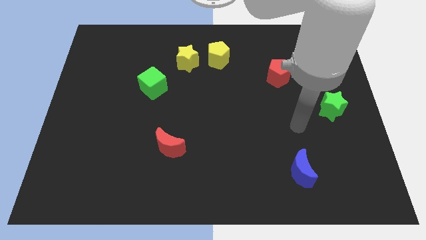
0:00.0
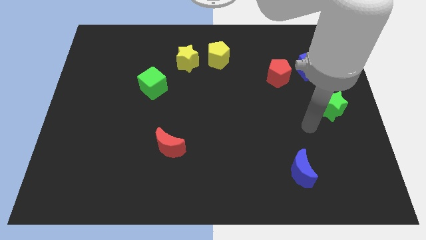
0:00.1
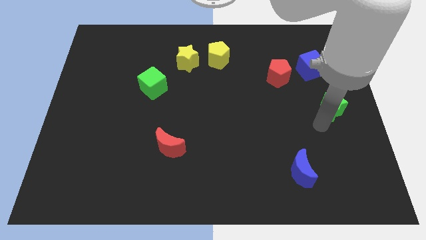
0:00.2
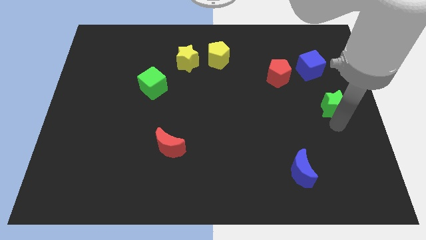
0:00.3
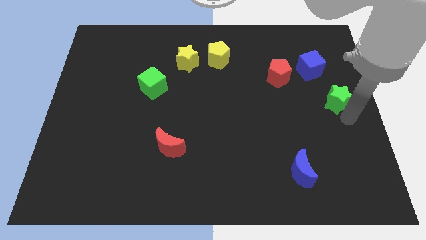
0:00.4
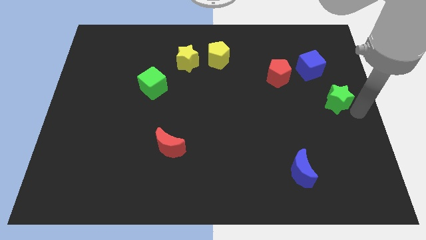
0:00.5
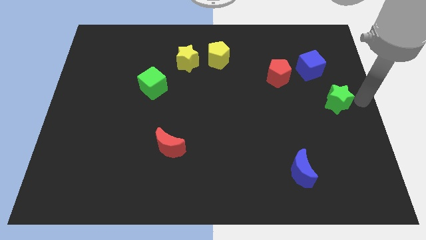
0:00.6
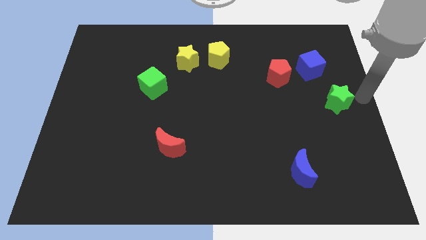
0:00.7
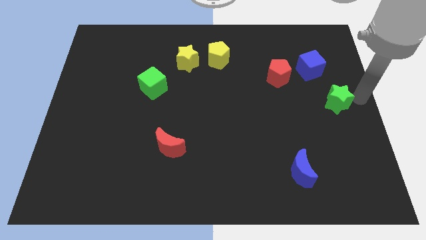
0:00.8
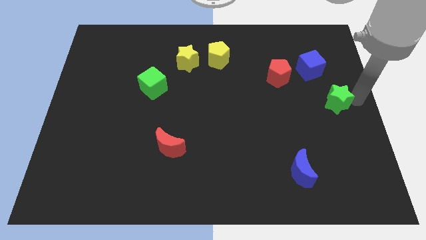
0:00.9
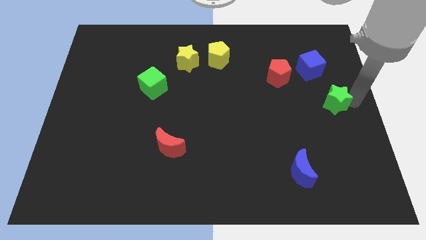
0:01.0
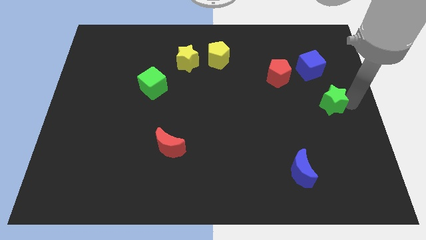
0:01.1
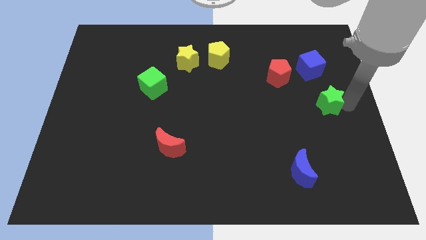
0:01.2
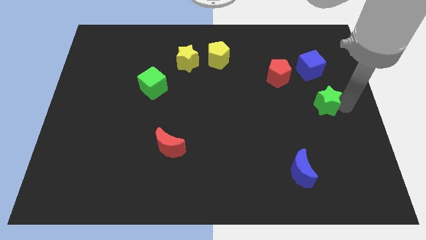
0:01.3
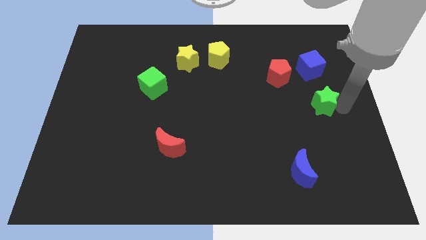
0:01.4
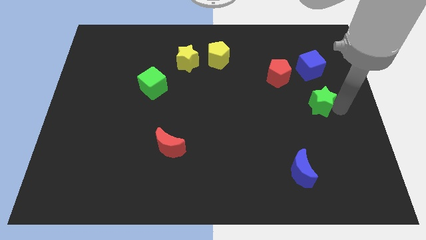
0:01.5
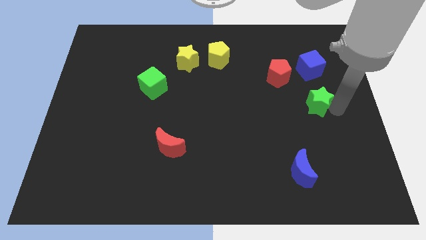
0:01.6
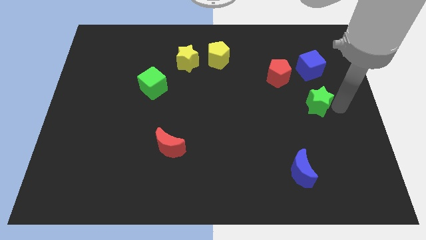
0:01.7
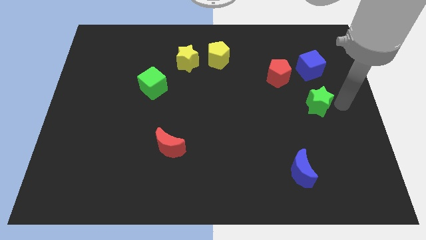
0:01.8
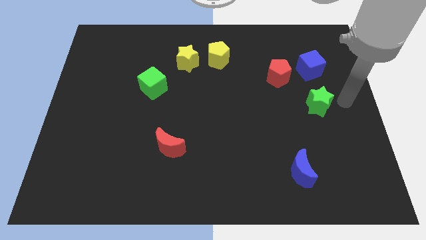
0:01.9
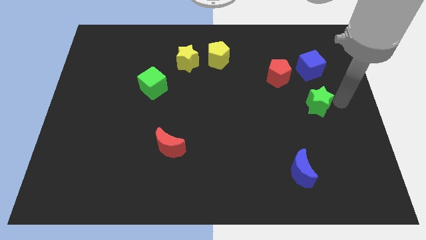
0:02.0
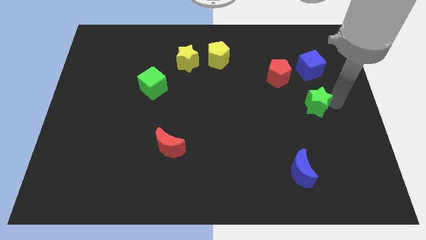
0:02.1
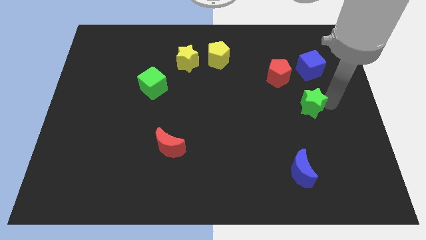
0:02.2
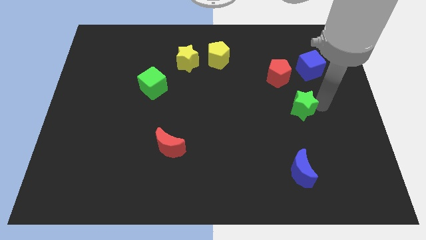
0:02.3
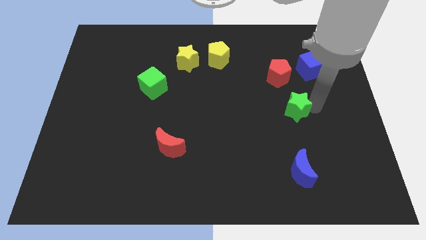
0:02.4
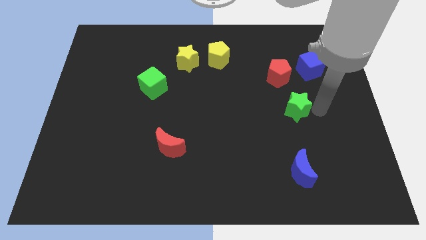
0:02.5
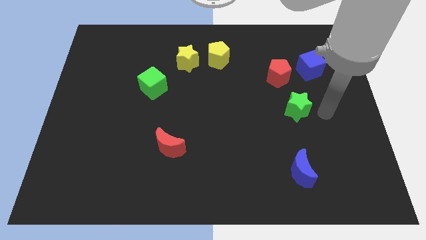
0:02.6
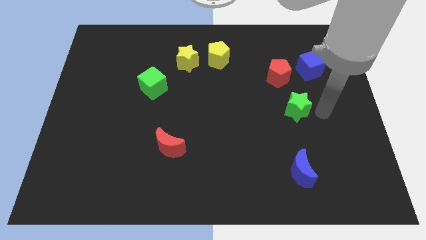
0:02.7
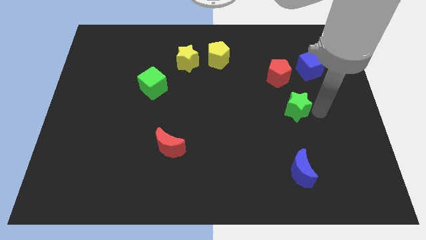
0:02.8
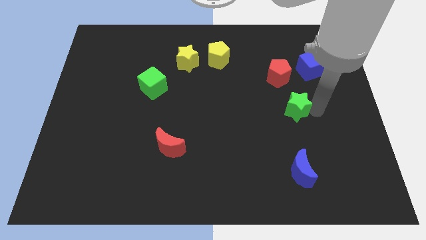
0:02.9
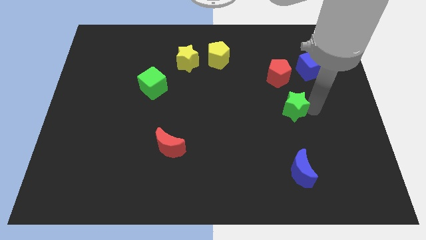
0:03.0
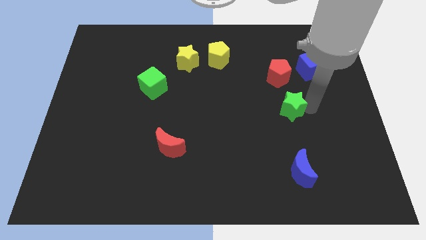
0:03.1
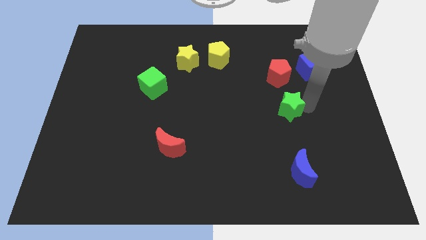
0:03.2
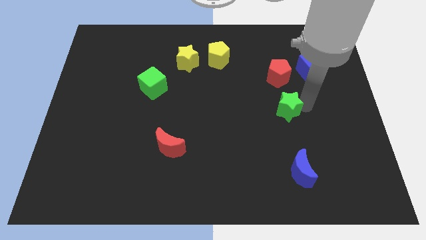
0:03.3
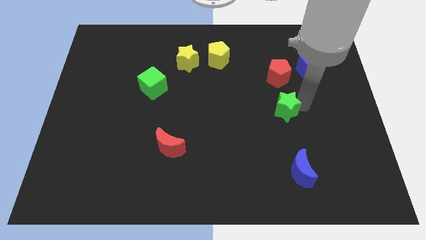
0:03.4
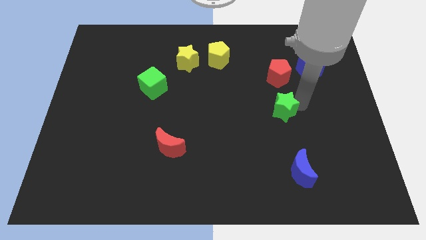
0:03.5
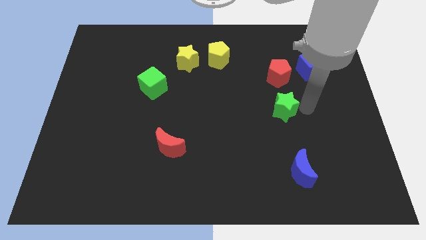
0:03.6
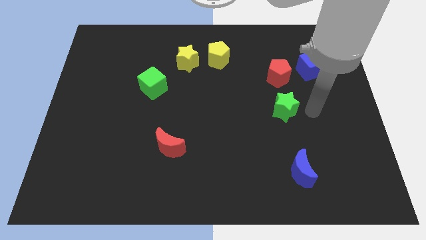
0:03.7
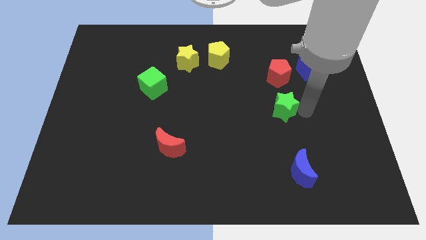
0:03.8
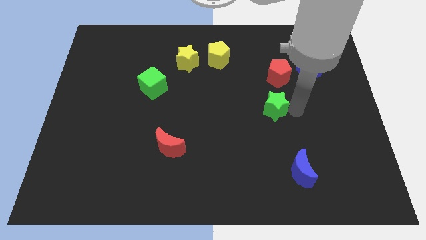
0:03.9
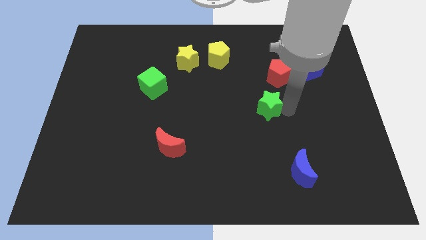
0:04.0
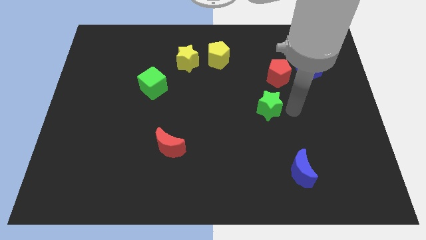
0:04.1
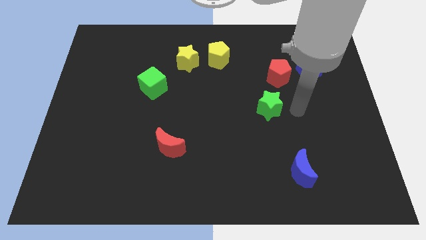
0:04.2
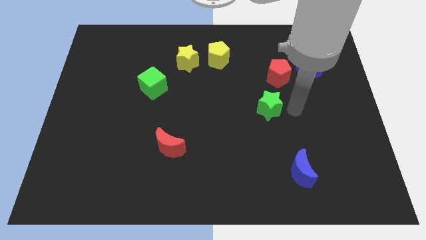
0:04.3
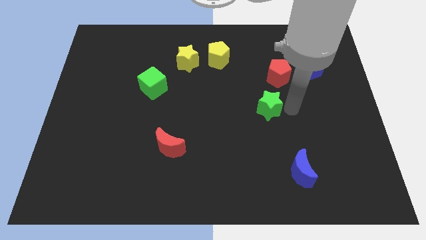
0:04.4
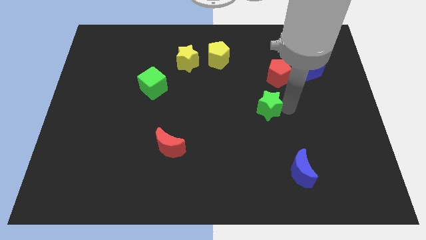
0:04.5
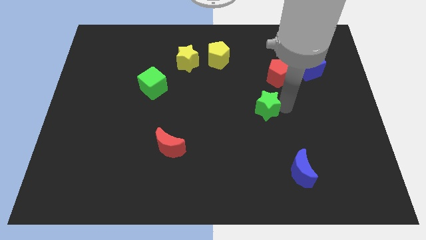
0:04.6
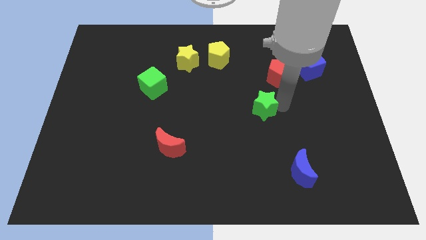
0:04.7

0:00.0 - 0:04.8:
put the green star to the middle of the board

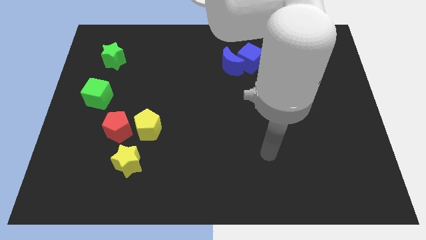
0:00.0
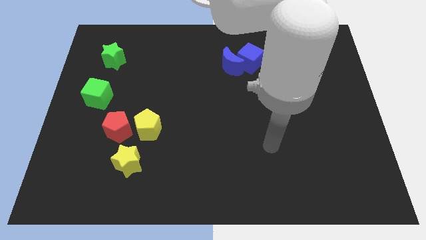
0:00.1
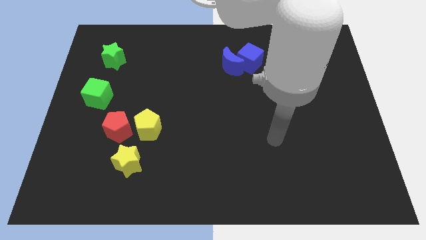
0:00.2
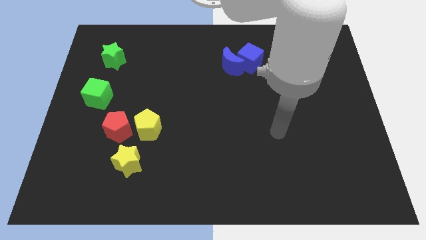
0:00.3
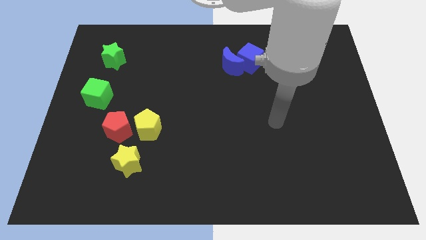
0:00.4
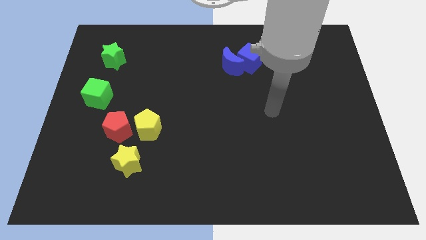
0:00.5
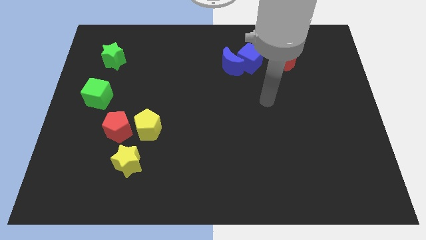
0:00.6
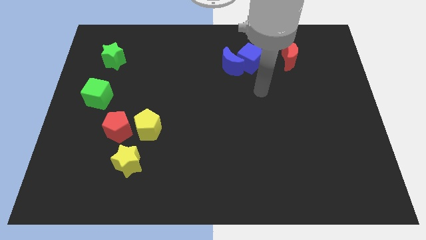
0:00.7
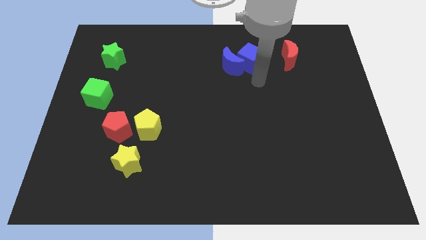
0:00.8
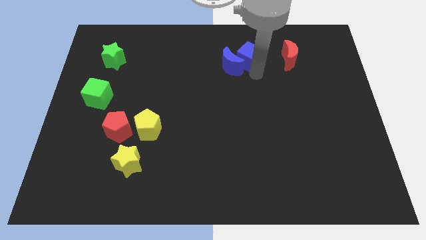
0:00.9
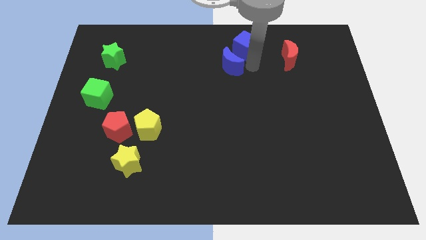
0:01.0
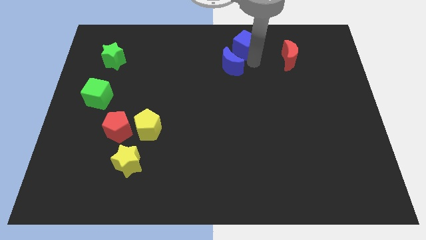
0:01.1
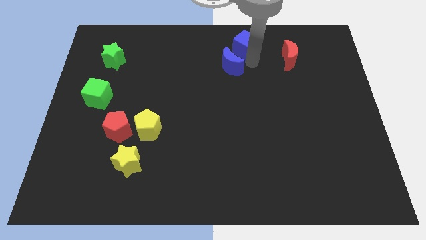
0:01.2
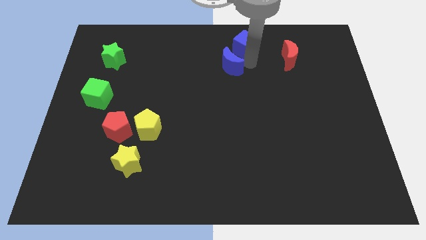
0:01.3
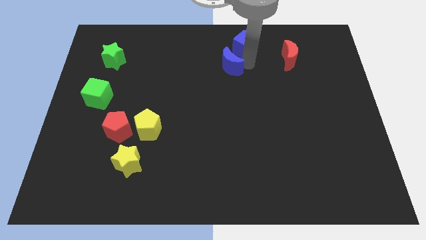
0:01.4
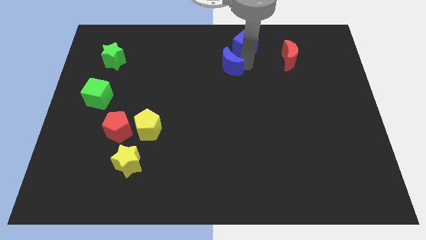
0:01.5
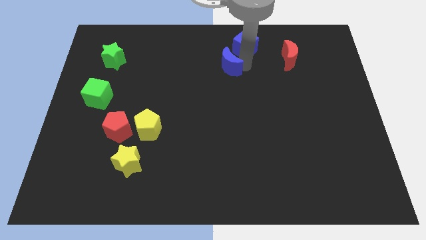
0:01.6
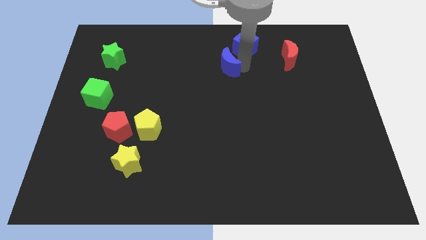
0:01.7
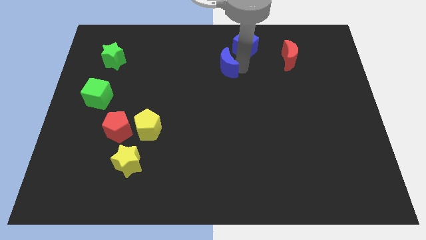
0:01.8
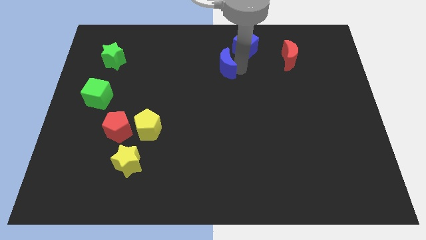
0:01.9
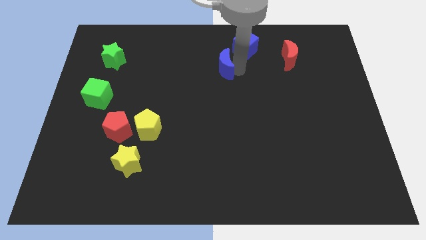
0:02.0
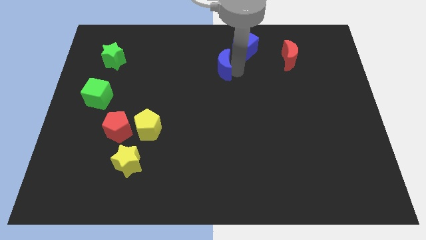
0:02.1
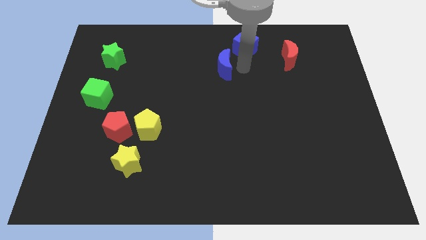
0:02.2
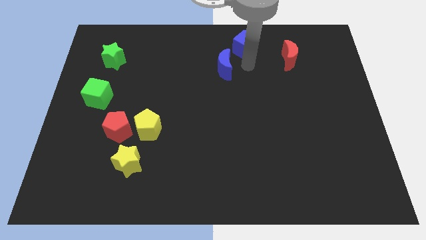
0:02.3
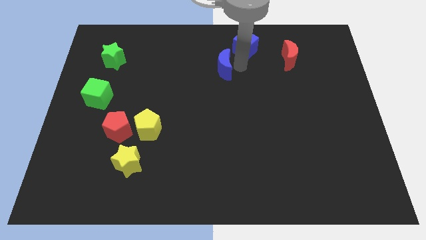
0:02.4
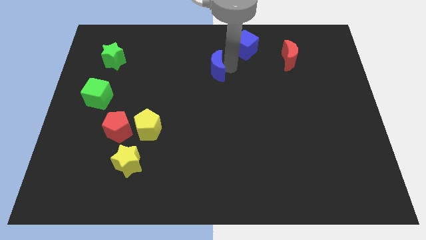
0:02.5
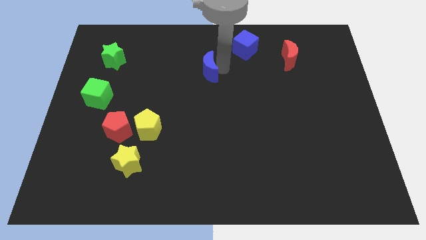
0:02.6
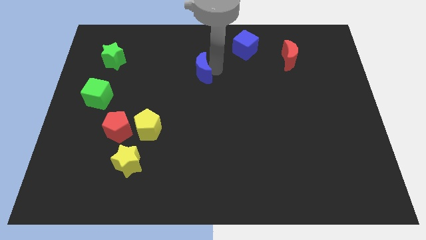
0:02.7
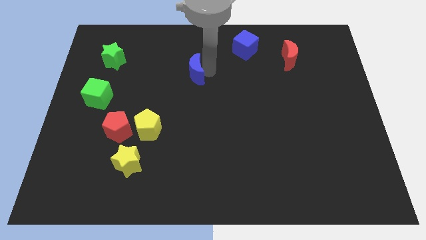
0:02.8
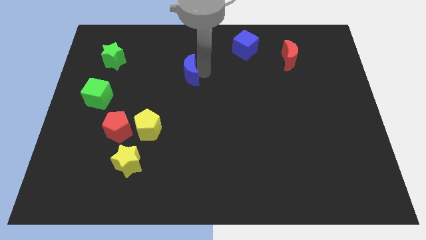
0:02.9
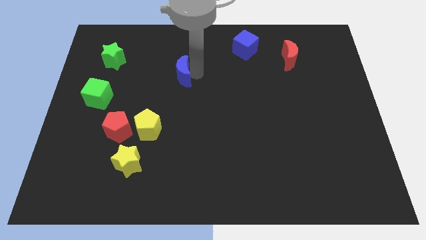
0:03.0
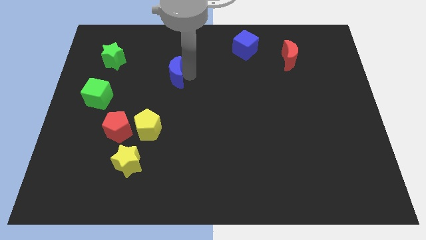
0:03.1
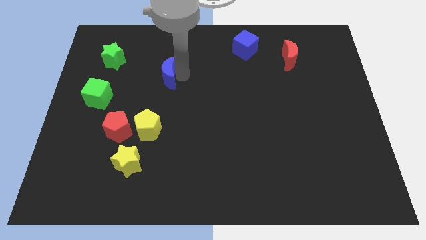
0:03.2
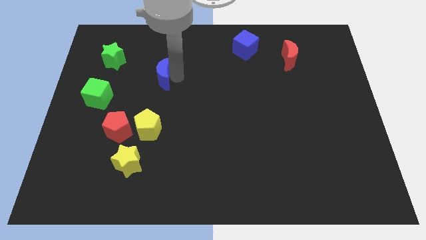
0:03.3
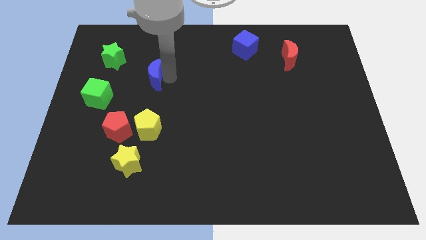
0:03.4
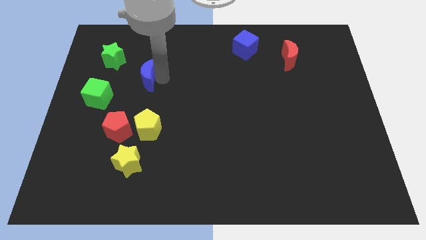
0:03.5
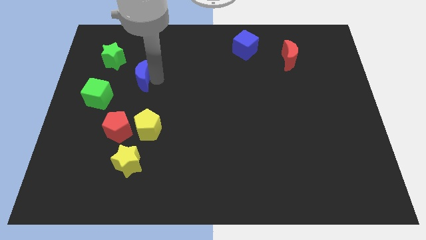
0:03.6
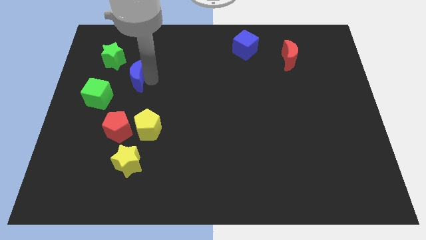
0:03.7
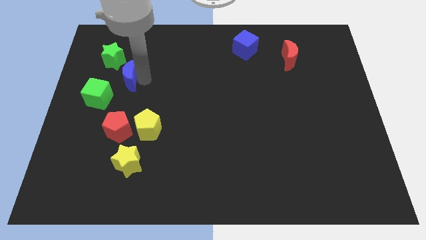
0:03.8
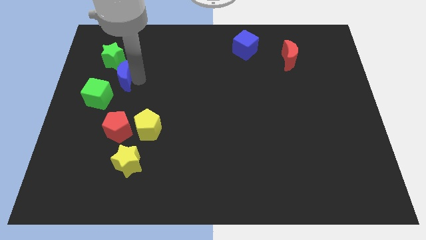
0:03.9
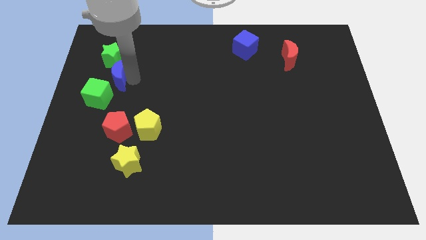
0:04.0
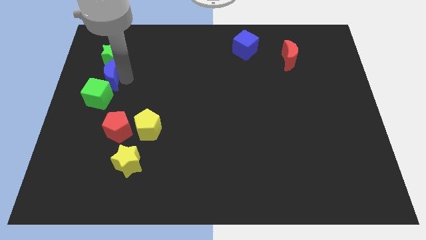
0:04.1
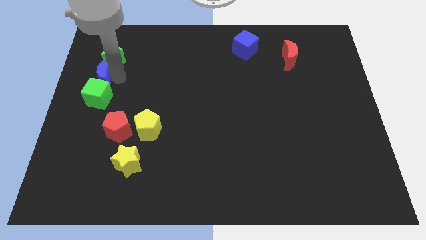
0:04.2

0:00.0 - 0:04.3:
slide the blue moon to the center left
